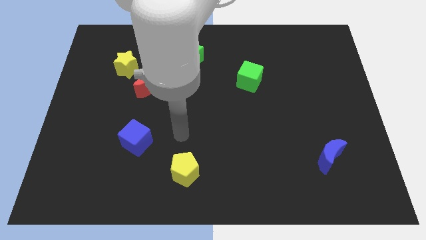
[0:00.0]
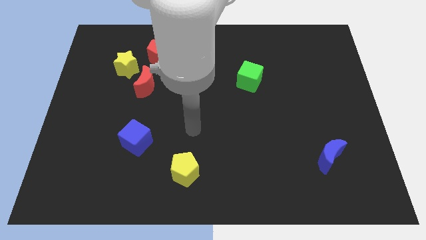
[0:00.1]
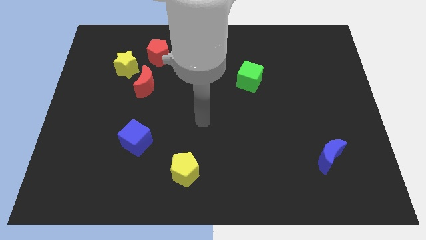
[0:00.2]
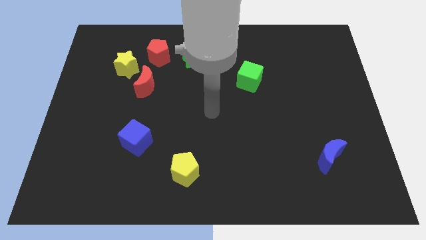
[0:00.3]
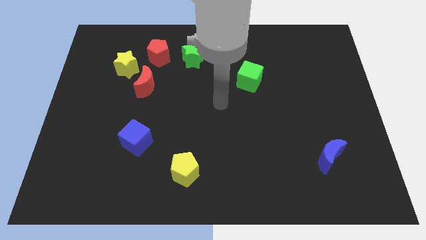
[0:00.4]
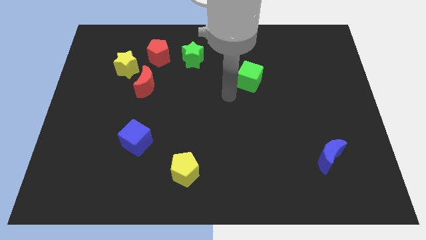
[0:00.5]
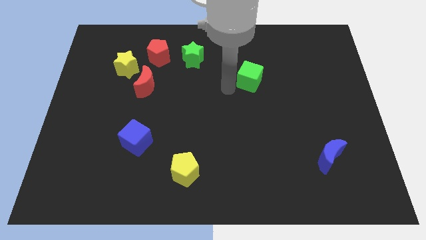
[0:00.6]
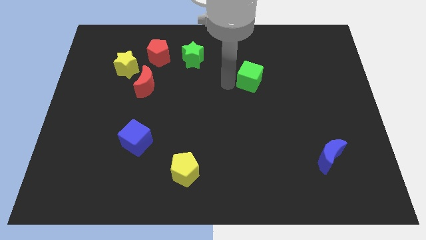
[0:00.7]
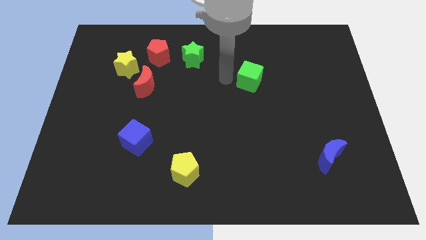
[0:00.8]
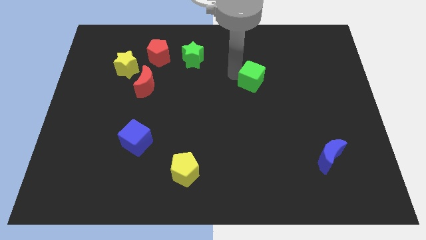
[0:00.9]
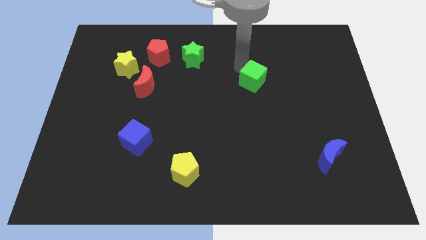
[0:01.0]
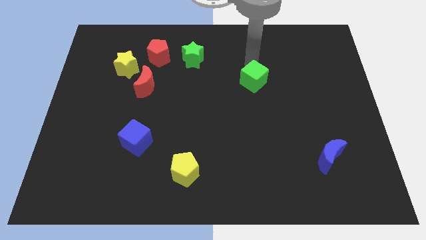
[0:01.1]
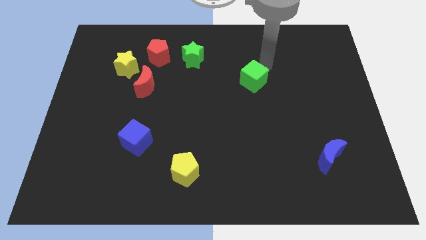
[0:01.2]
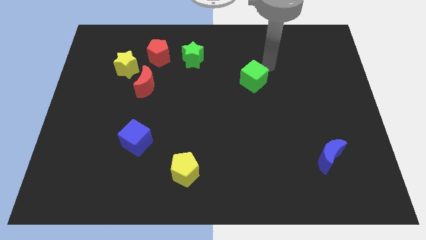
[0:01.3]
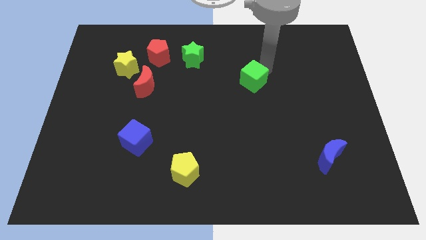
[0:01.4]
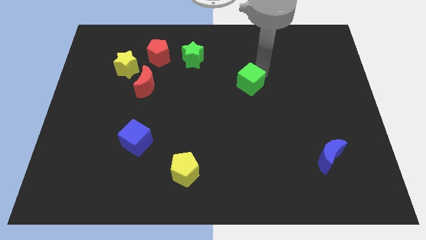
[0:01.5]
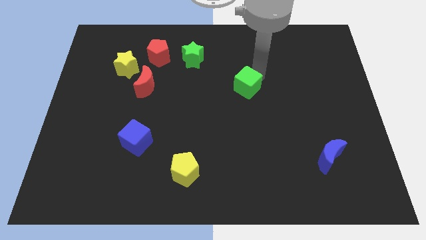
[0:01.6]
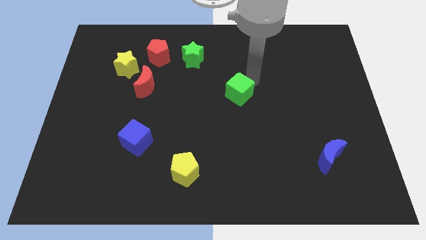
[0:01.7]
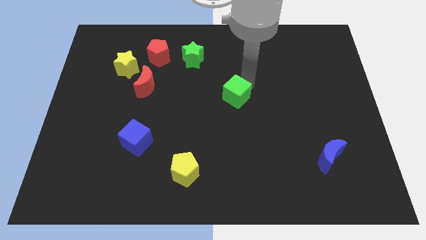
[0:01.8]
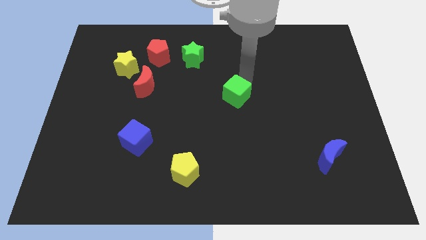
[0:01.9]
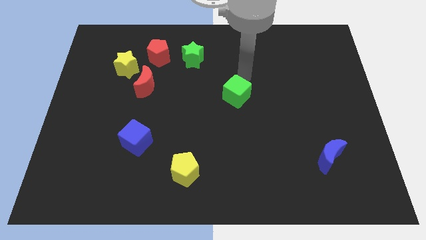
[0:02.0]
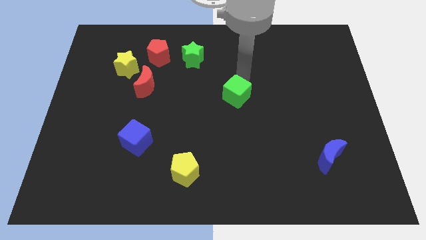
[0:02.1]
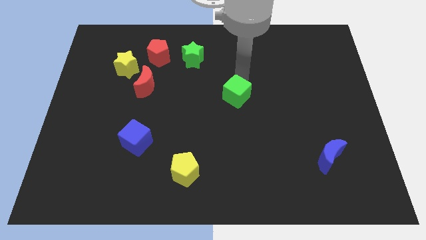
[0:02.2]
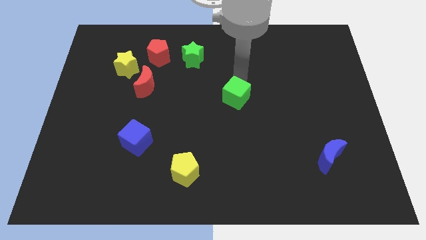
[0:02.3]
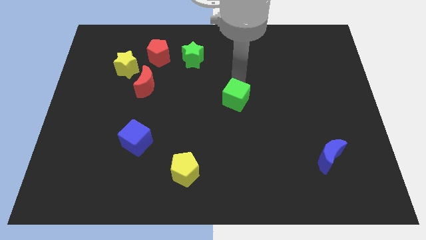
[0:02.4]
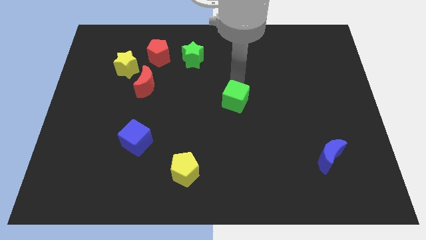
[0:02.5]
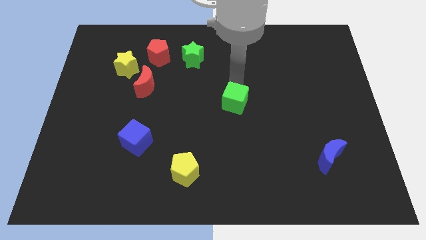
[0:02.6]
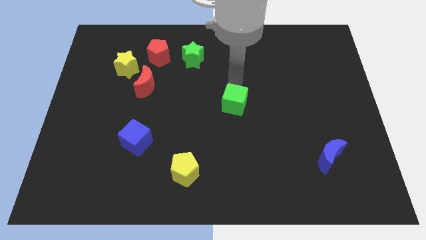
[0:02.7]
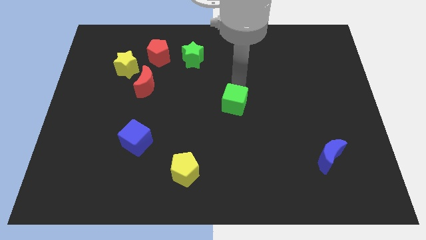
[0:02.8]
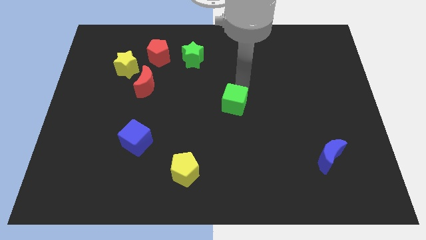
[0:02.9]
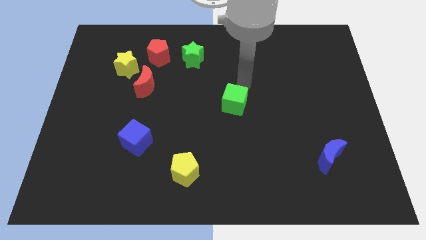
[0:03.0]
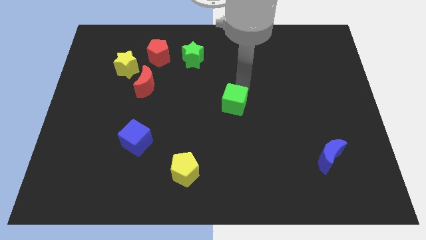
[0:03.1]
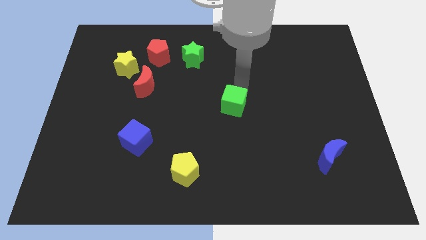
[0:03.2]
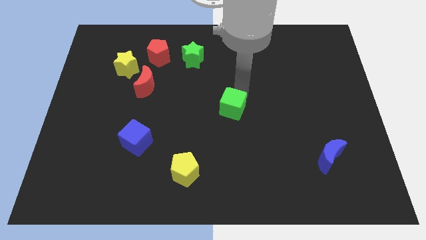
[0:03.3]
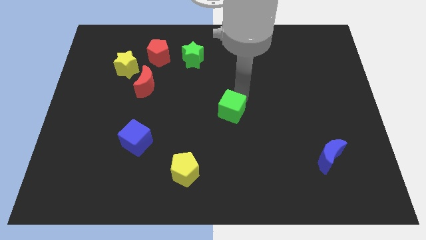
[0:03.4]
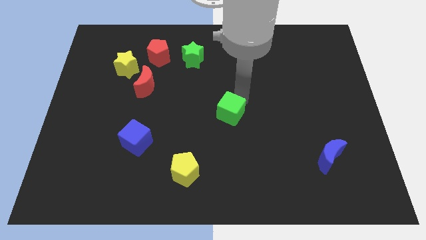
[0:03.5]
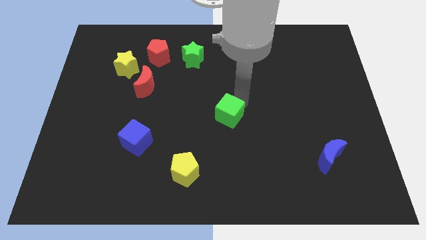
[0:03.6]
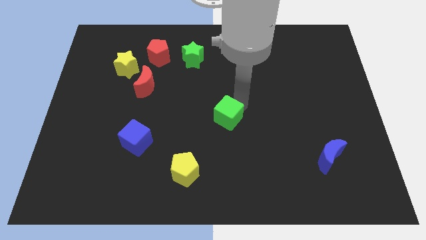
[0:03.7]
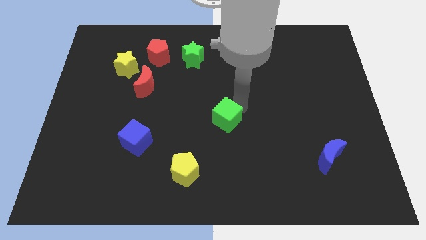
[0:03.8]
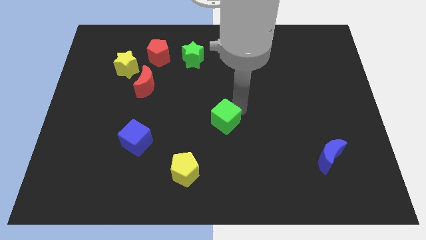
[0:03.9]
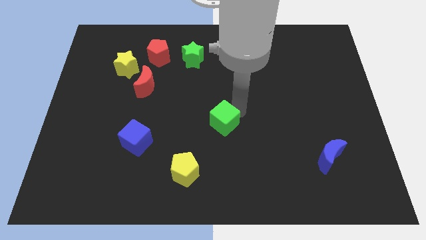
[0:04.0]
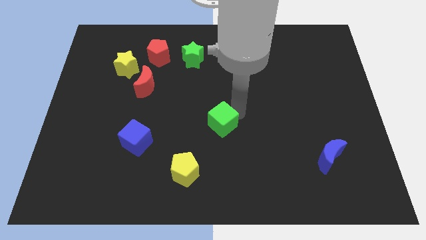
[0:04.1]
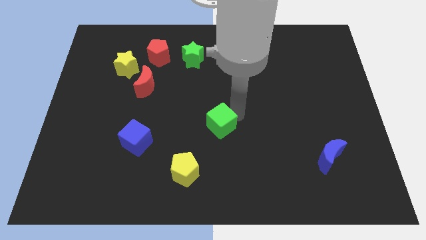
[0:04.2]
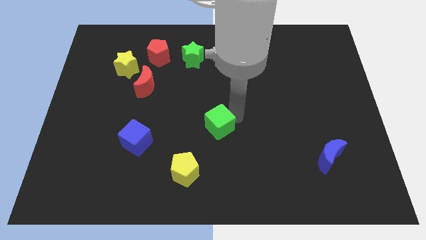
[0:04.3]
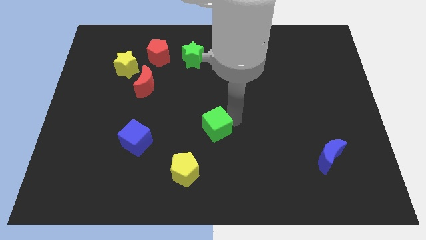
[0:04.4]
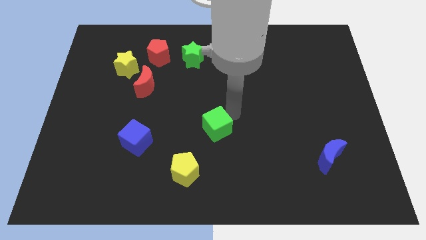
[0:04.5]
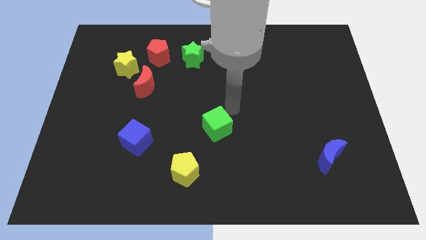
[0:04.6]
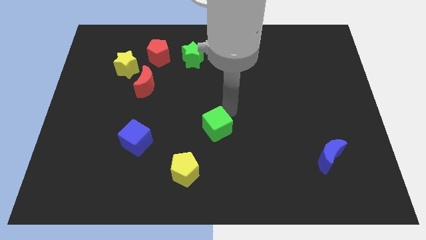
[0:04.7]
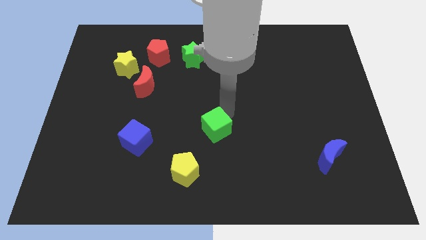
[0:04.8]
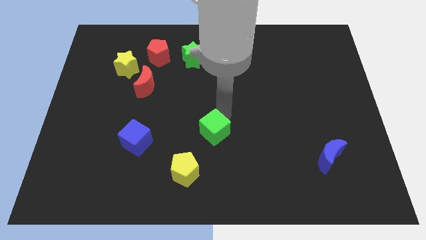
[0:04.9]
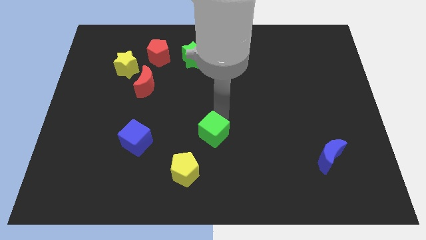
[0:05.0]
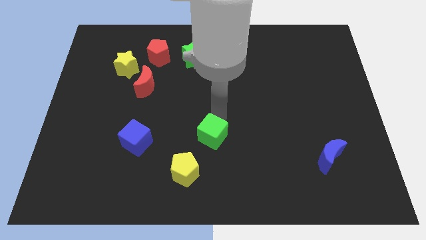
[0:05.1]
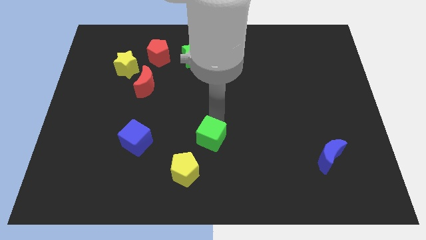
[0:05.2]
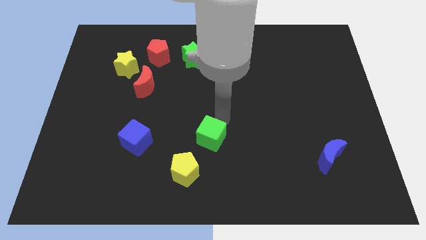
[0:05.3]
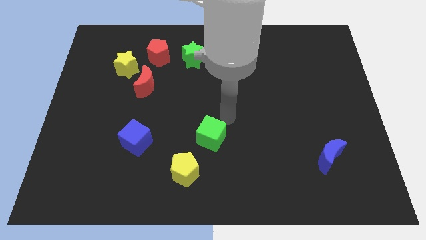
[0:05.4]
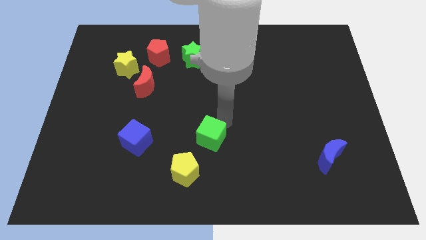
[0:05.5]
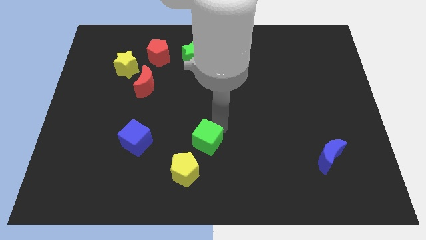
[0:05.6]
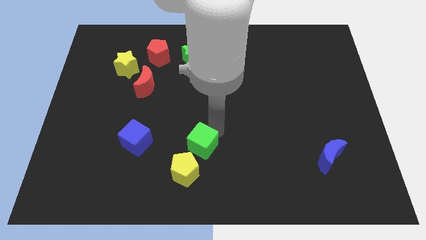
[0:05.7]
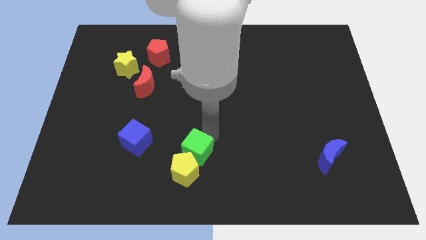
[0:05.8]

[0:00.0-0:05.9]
slide the green cube to the yellow pentagon

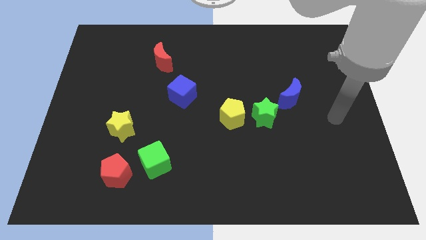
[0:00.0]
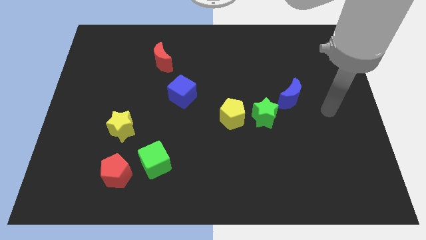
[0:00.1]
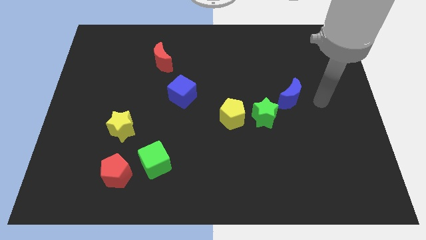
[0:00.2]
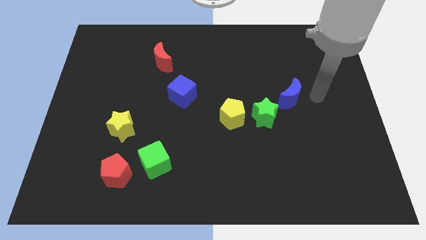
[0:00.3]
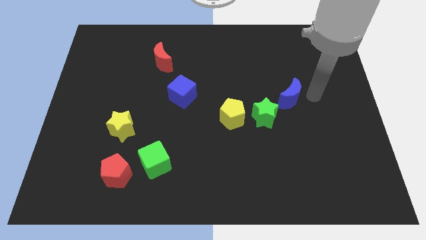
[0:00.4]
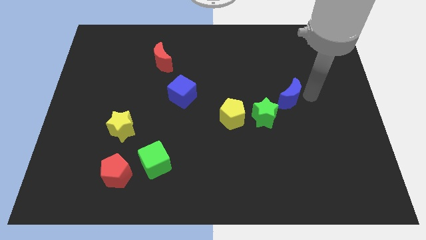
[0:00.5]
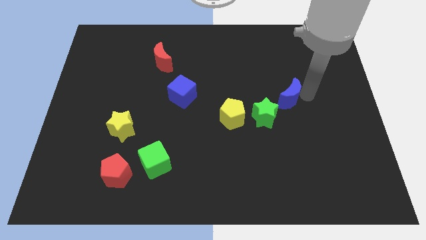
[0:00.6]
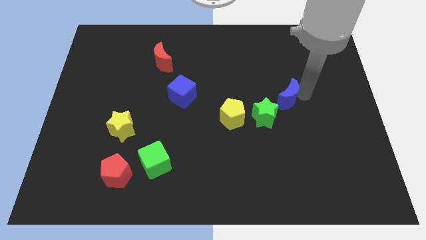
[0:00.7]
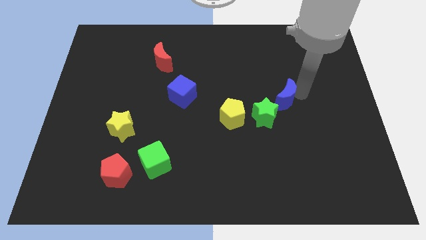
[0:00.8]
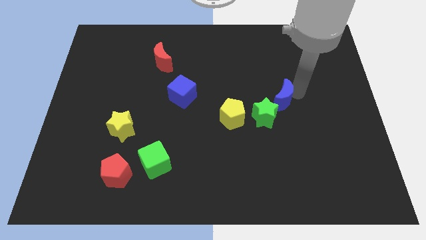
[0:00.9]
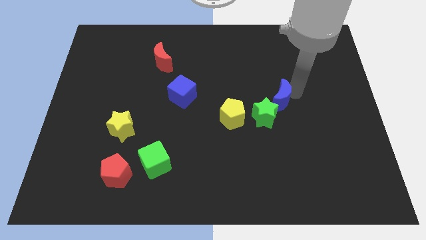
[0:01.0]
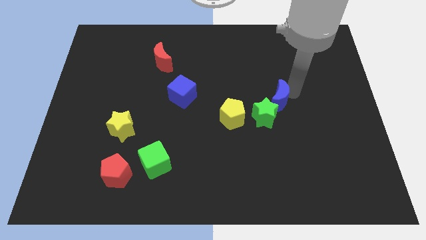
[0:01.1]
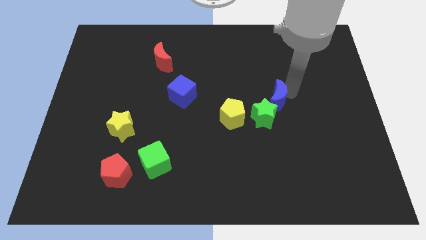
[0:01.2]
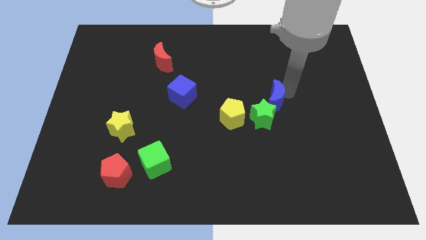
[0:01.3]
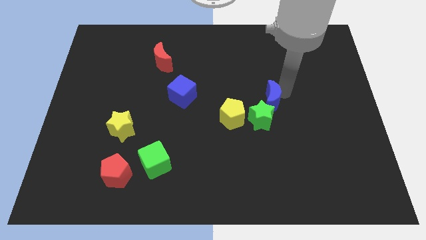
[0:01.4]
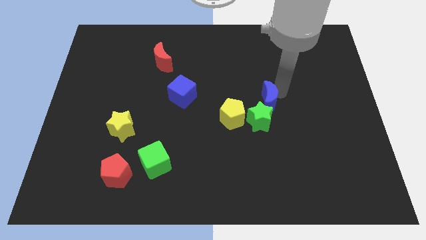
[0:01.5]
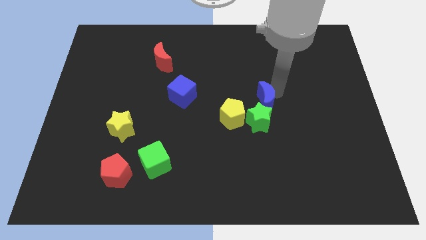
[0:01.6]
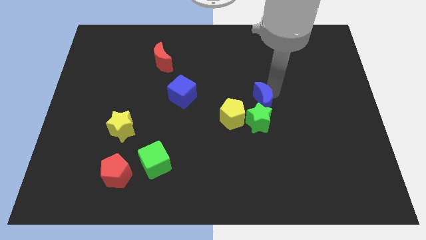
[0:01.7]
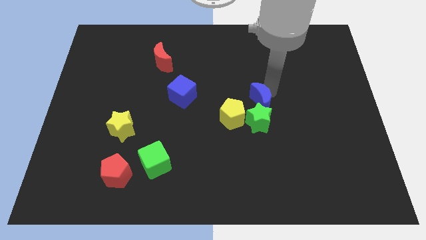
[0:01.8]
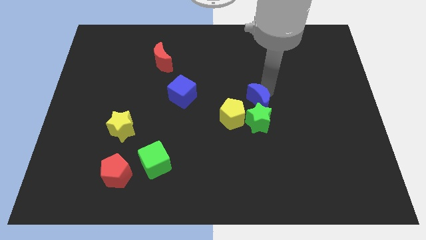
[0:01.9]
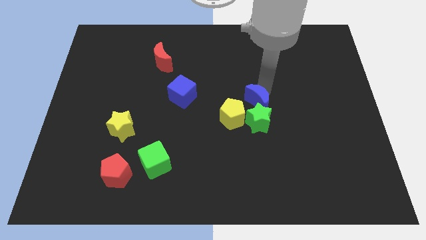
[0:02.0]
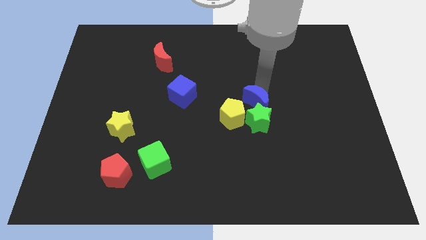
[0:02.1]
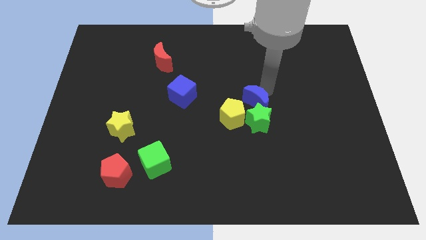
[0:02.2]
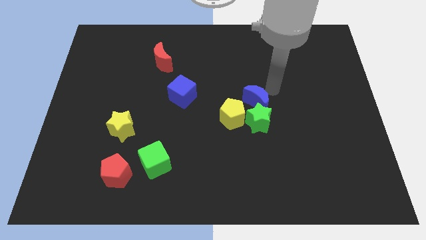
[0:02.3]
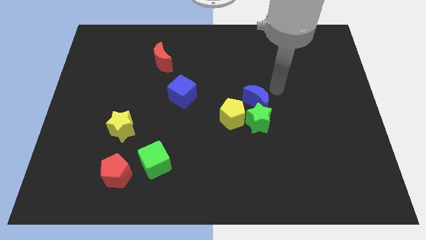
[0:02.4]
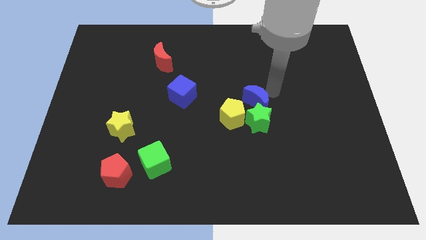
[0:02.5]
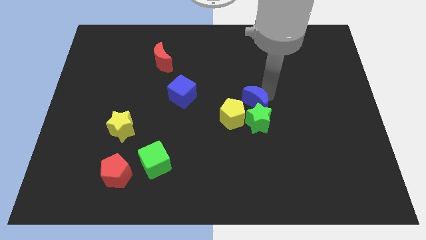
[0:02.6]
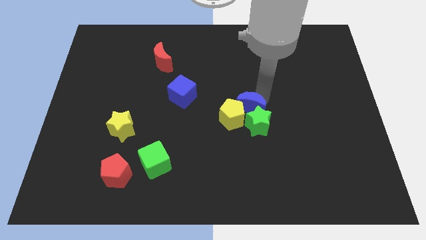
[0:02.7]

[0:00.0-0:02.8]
put the blue moon close to the yellow pentagon
